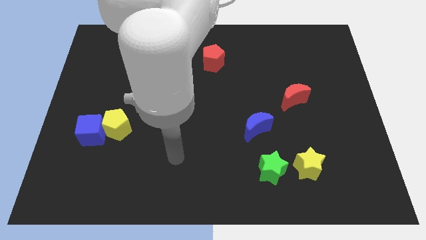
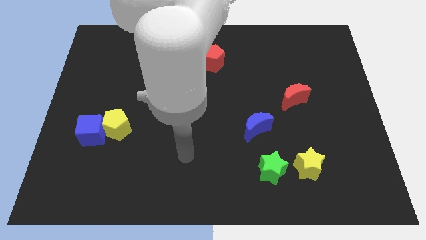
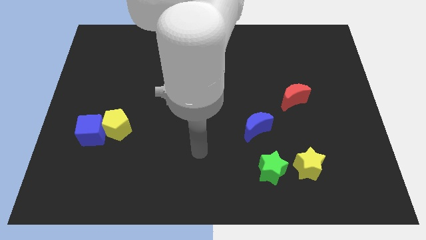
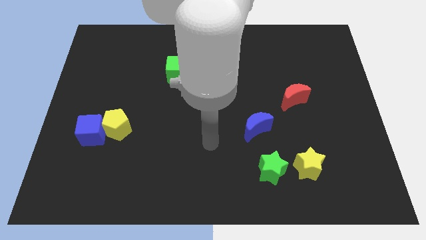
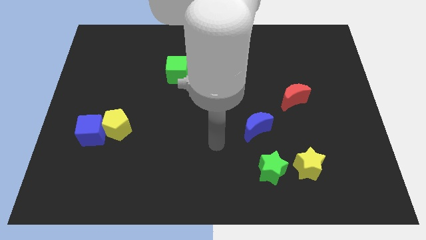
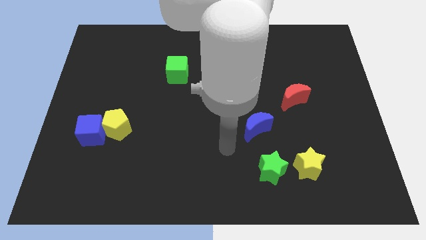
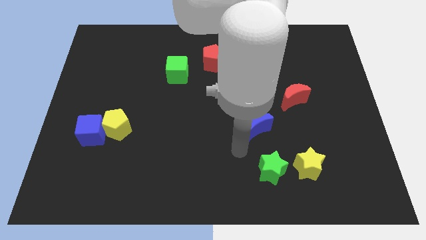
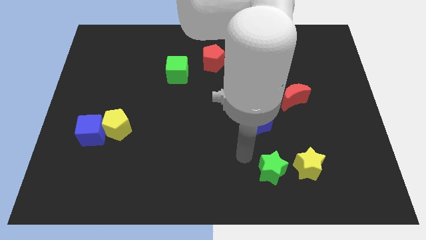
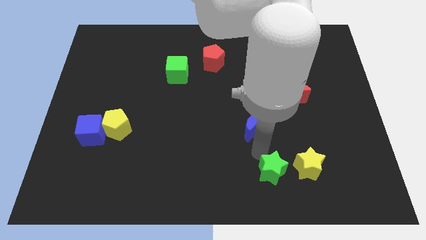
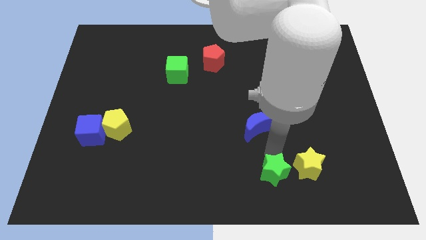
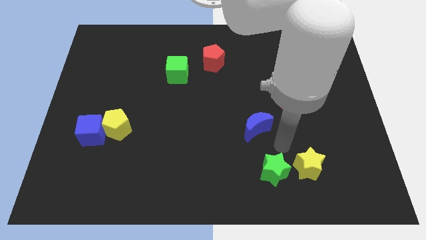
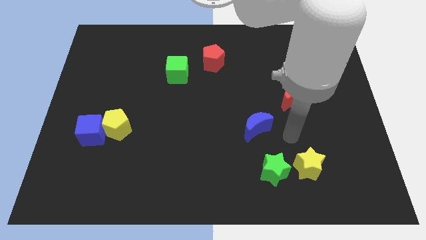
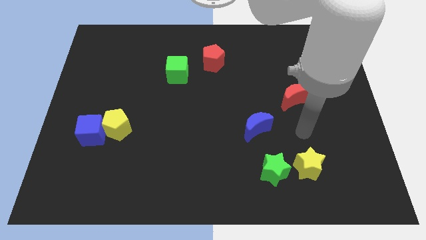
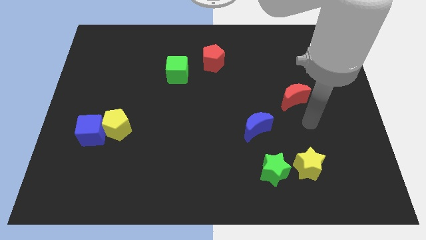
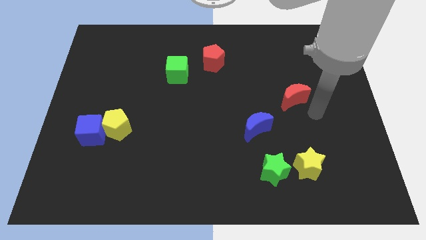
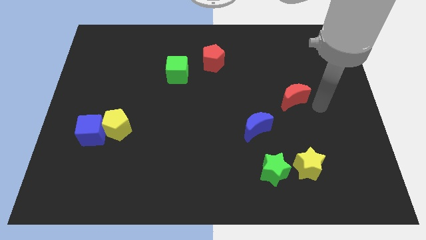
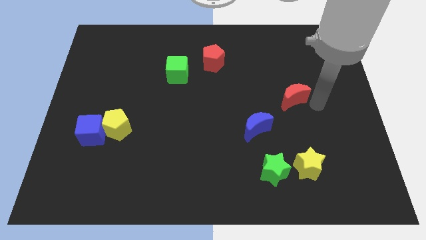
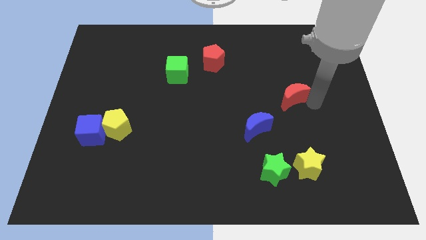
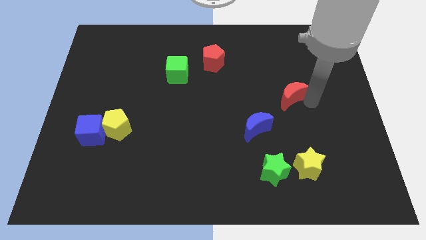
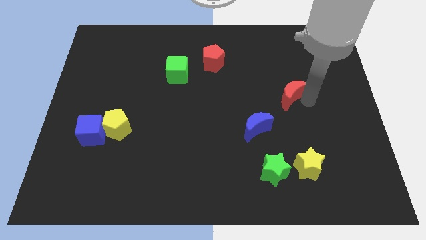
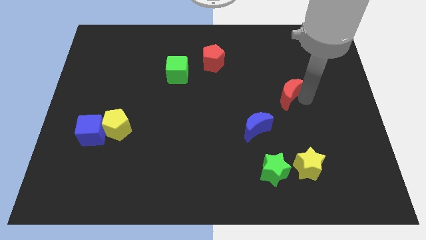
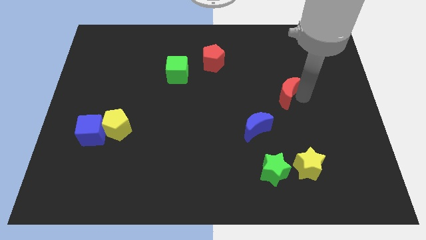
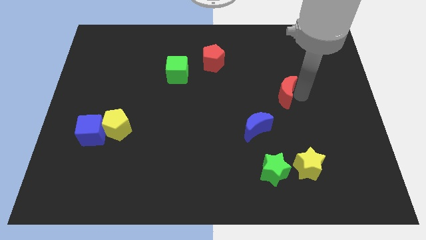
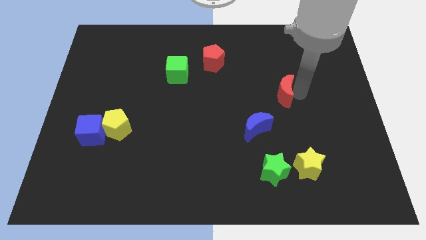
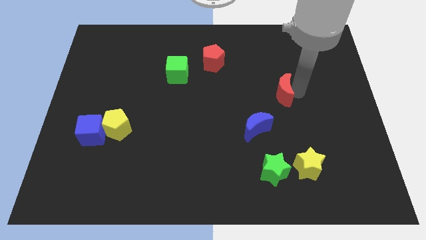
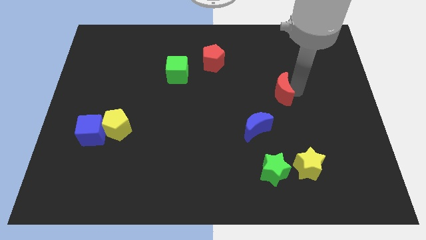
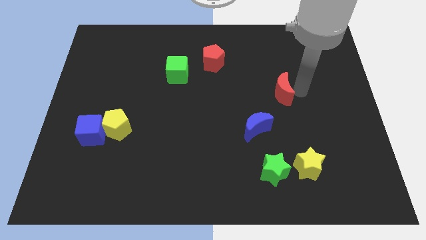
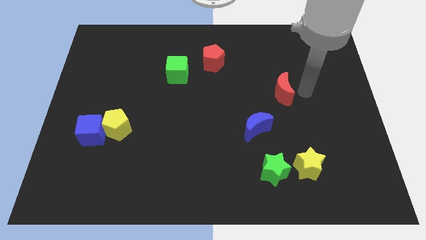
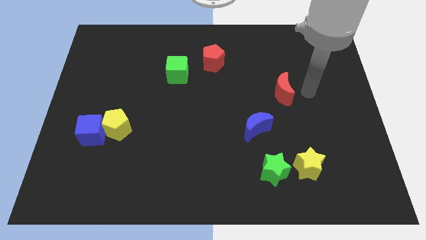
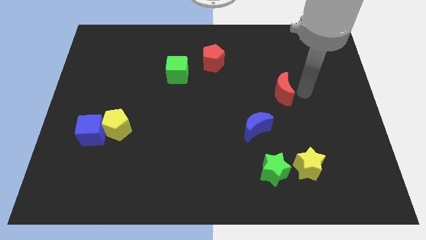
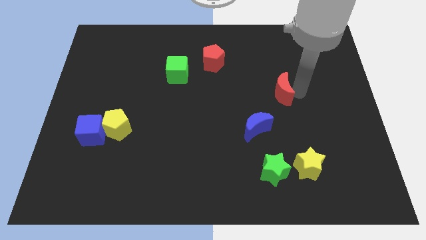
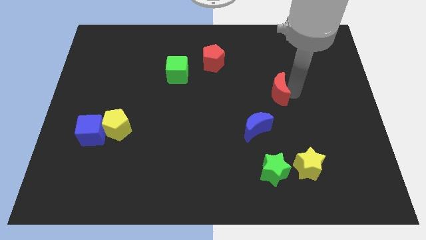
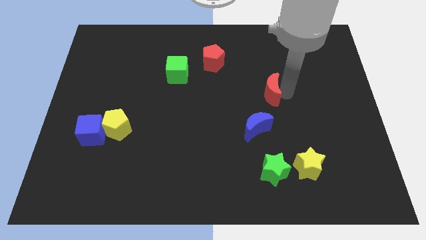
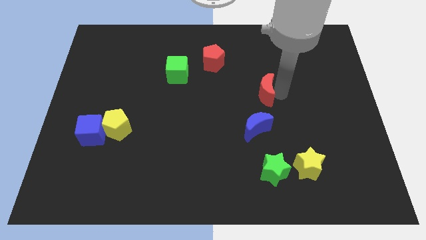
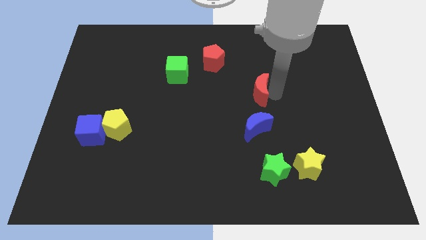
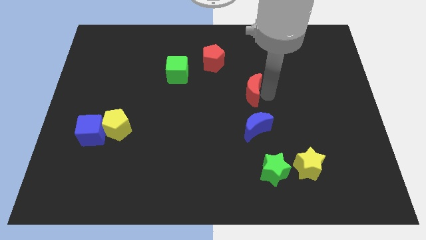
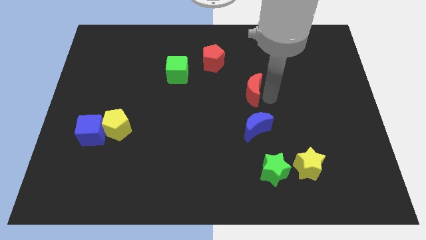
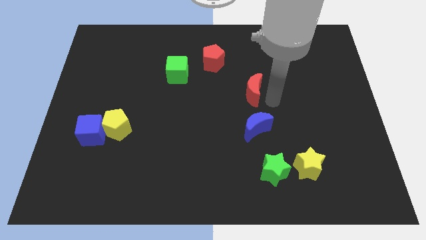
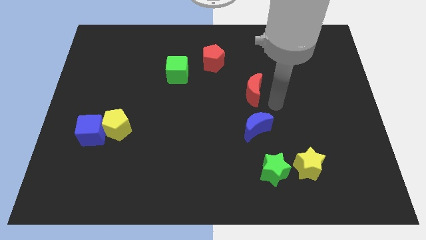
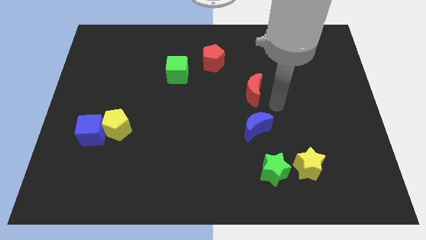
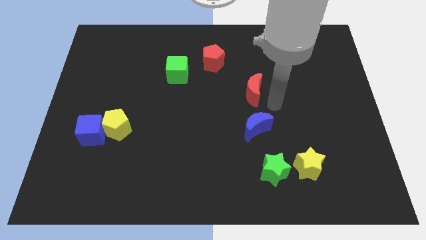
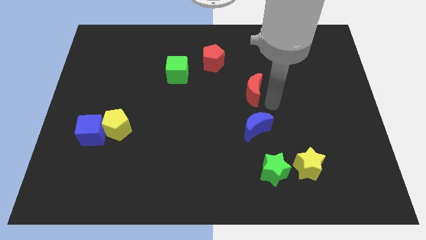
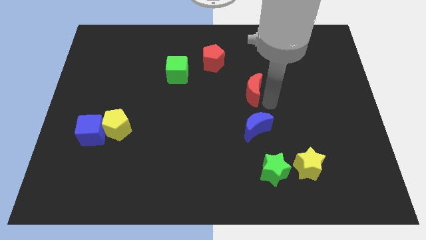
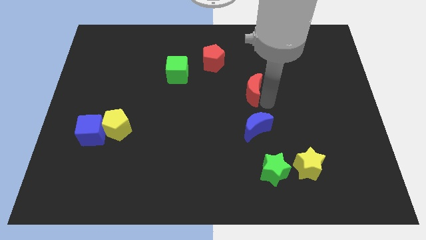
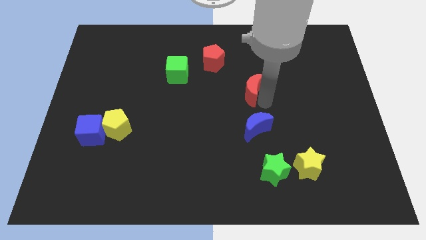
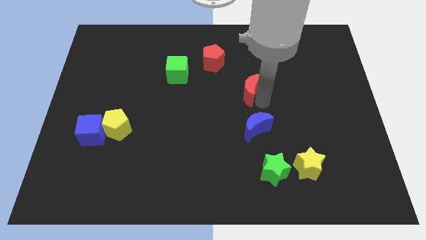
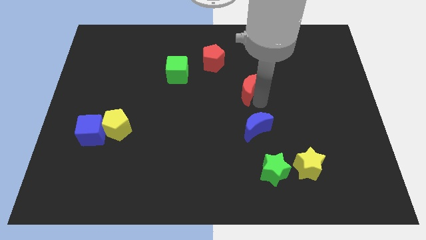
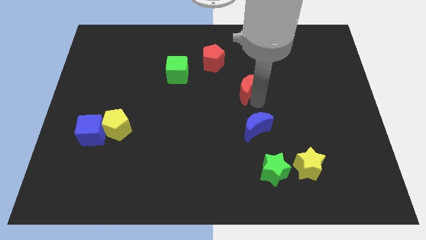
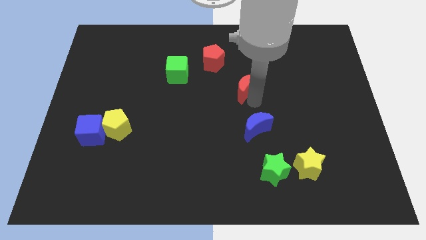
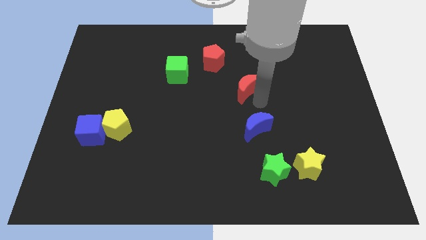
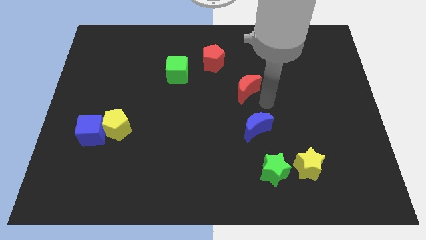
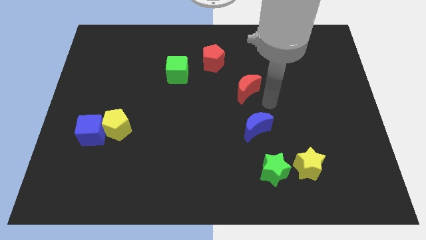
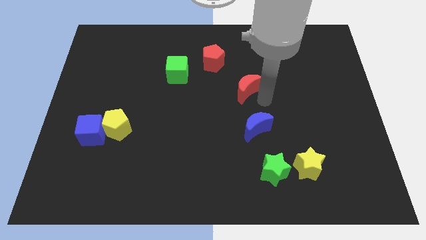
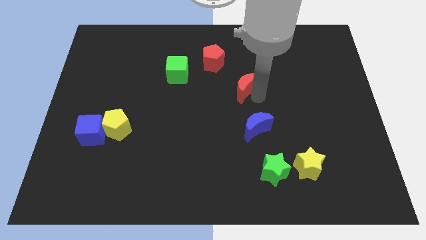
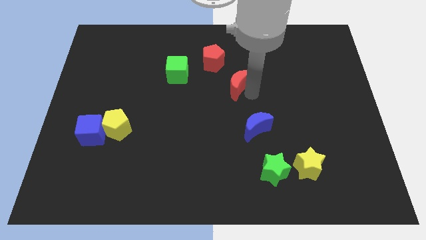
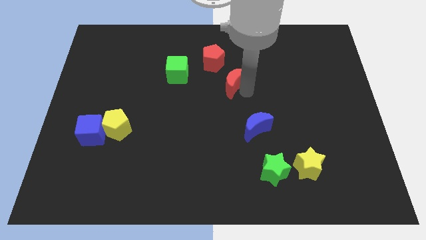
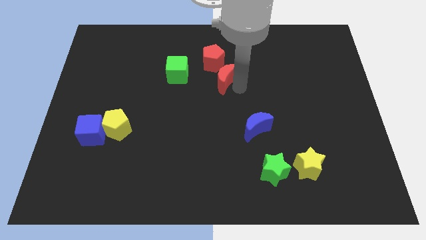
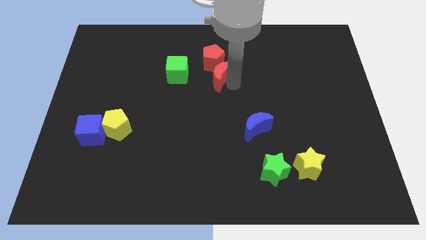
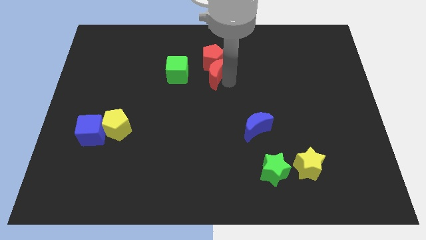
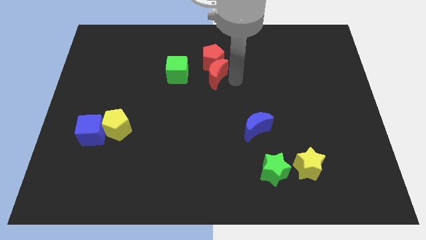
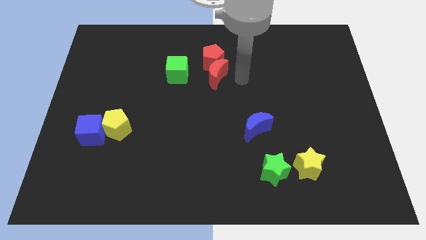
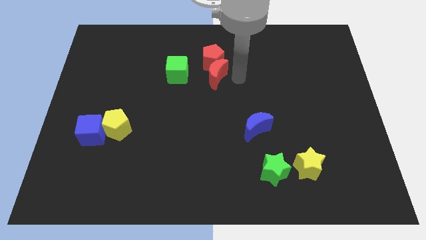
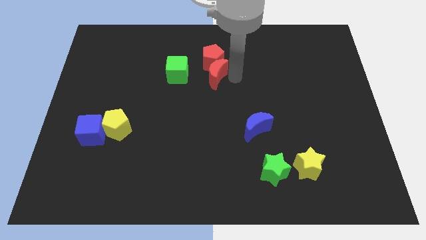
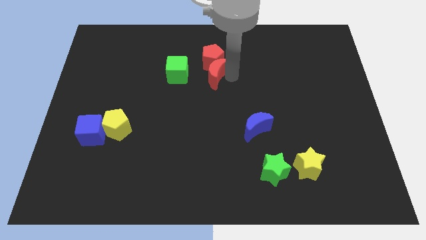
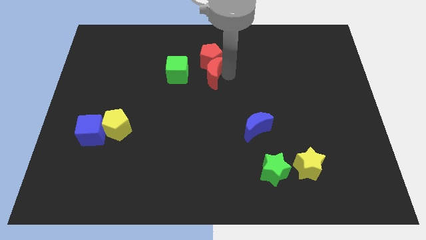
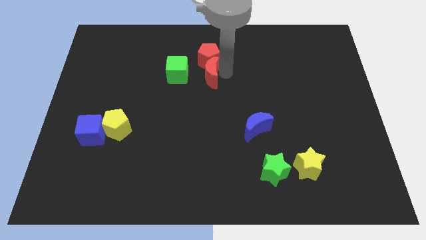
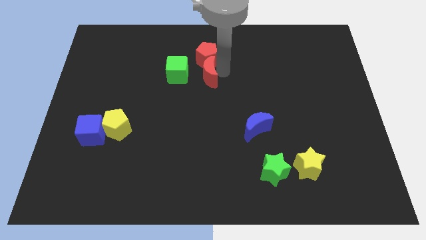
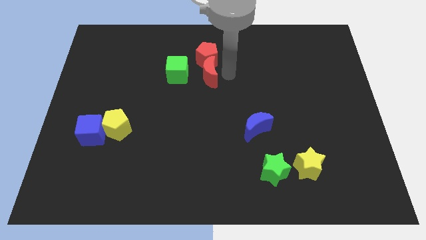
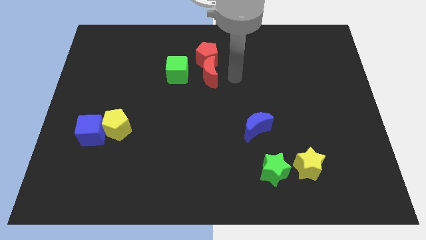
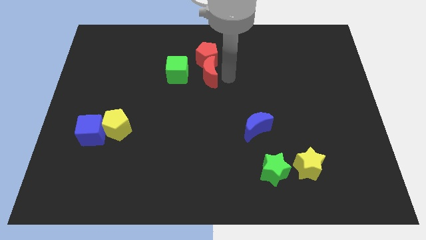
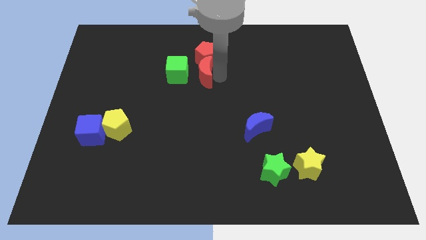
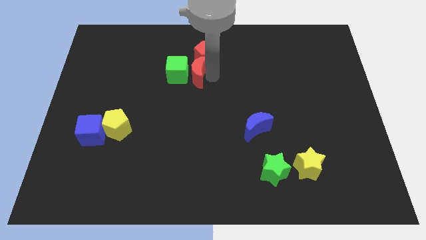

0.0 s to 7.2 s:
move the red moon next to the green cube
